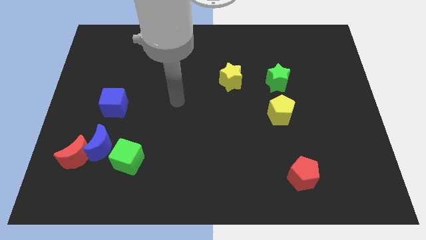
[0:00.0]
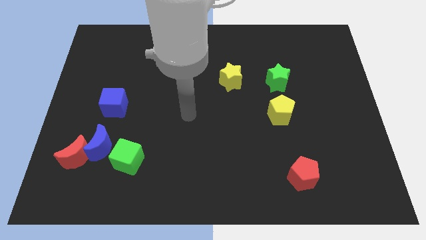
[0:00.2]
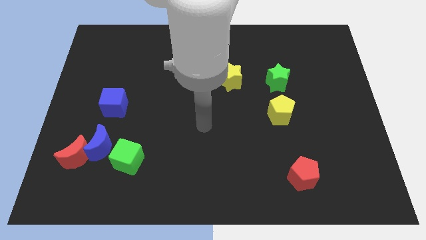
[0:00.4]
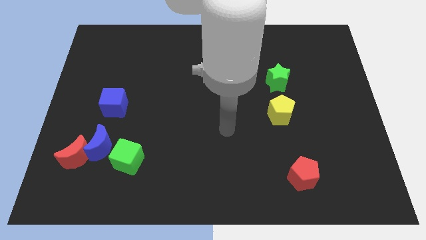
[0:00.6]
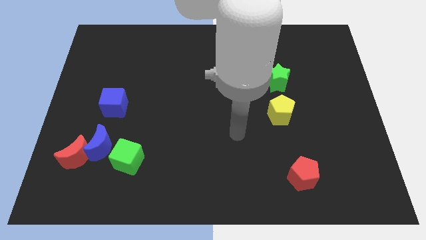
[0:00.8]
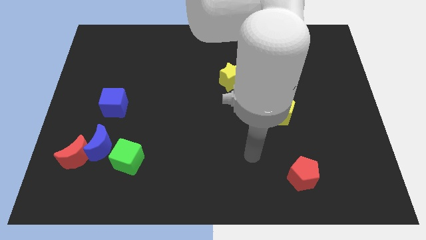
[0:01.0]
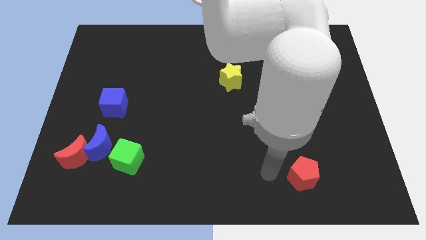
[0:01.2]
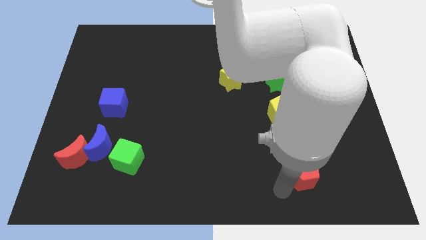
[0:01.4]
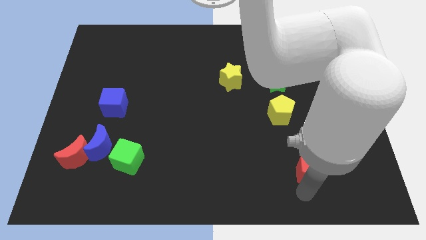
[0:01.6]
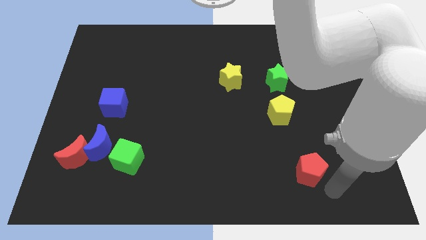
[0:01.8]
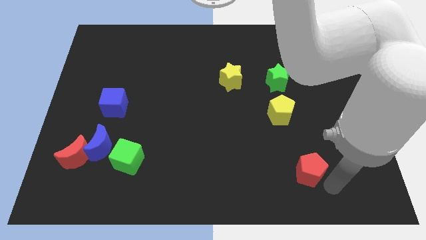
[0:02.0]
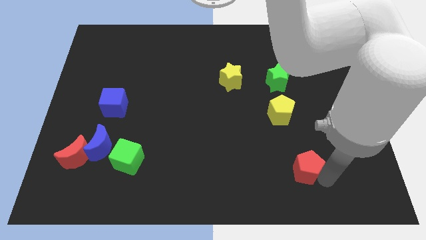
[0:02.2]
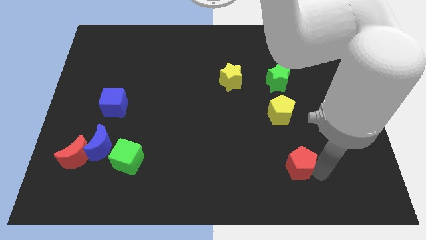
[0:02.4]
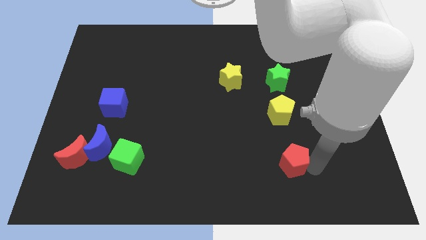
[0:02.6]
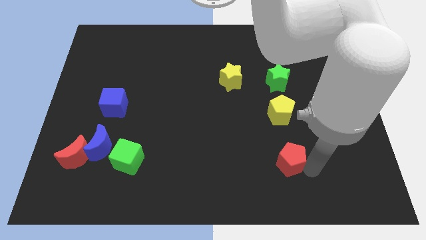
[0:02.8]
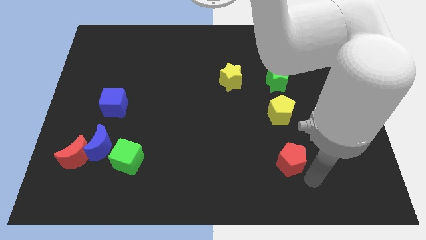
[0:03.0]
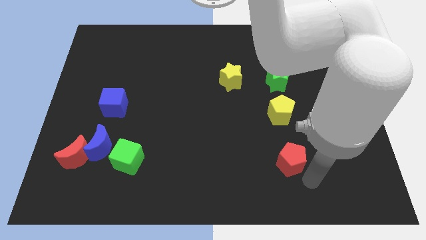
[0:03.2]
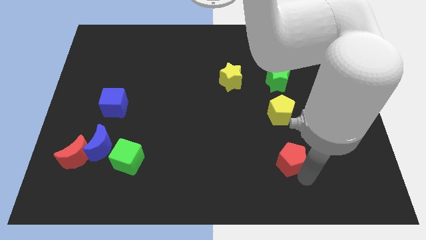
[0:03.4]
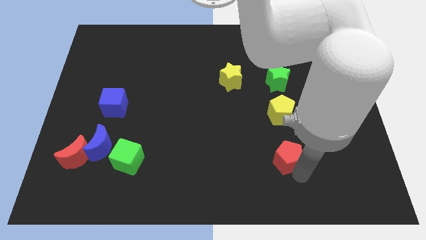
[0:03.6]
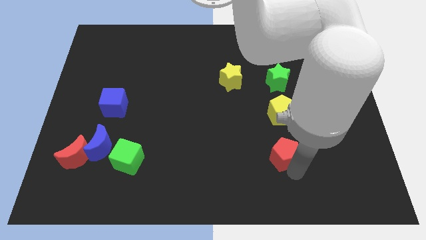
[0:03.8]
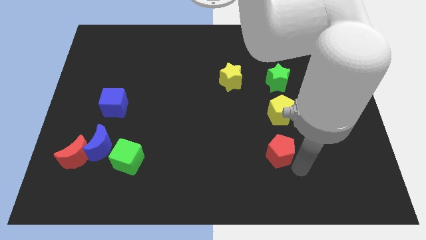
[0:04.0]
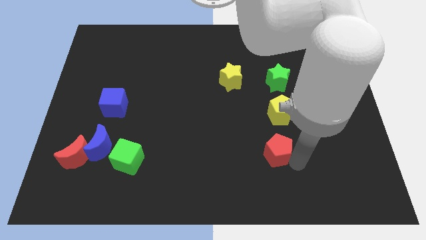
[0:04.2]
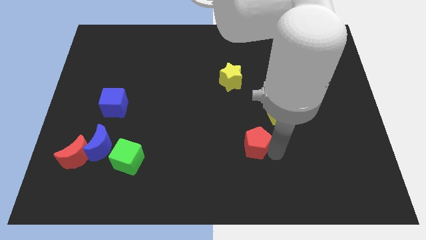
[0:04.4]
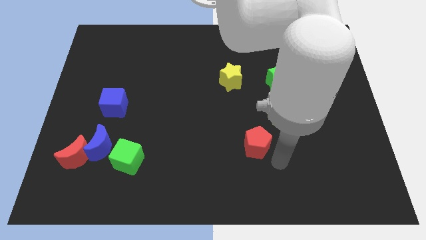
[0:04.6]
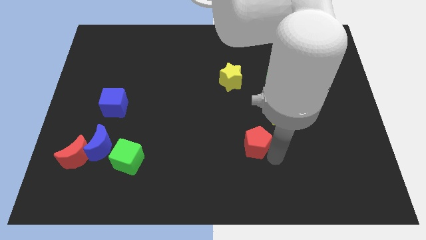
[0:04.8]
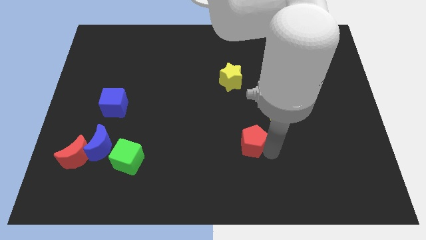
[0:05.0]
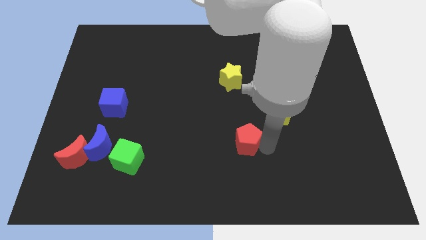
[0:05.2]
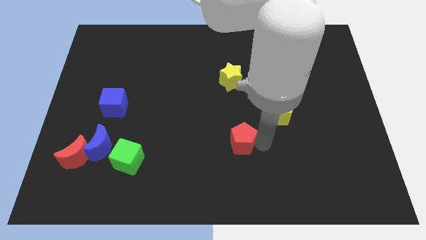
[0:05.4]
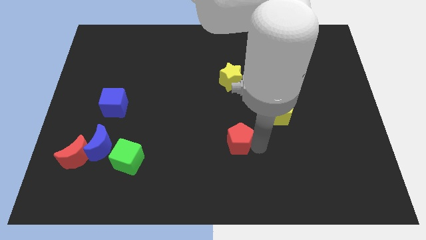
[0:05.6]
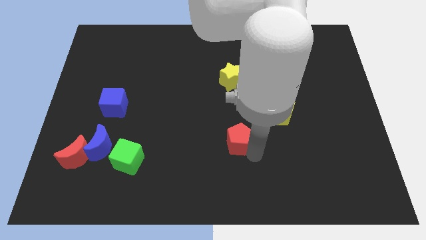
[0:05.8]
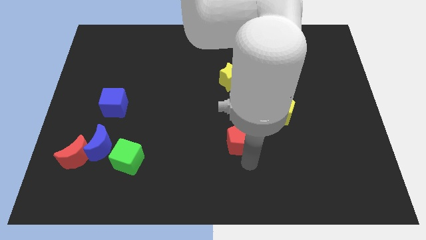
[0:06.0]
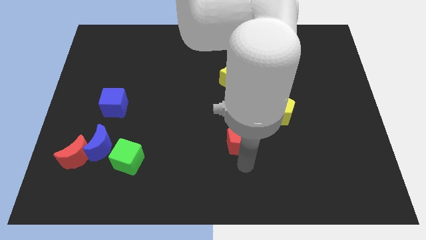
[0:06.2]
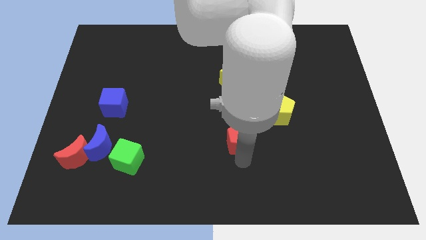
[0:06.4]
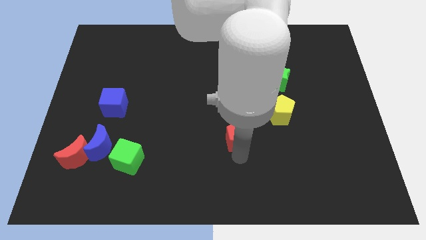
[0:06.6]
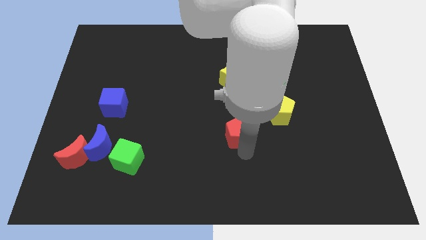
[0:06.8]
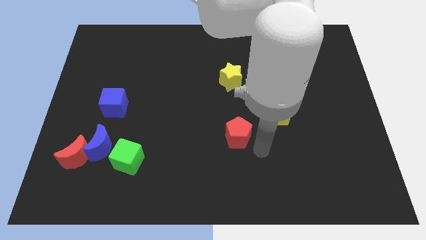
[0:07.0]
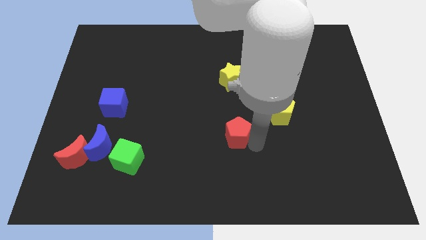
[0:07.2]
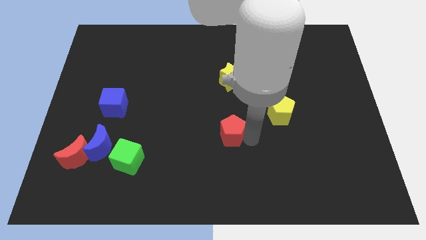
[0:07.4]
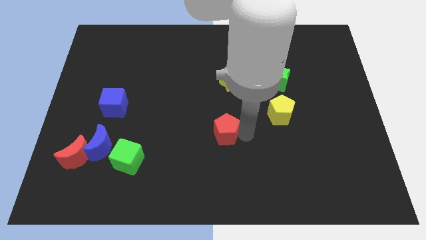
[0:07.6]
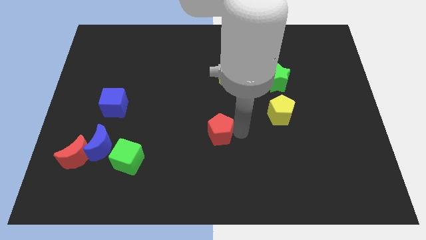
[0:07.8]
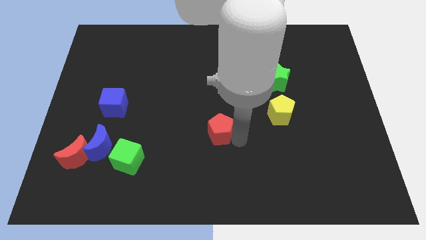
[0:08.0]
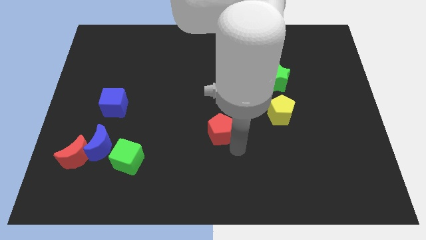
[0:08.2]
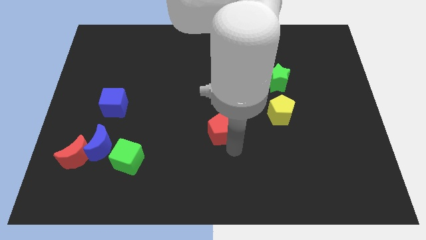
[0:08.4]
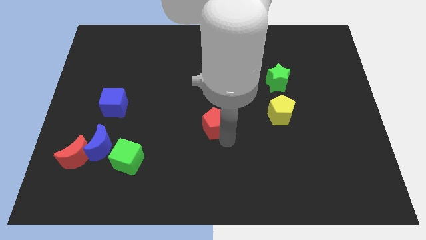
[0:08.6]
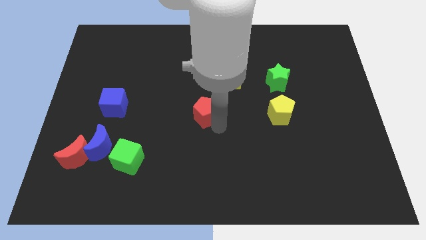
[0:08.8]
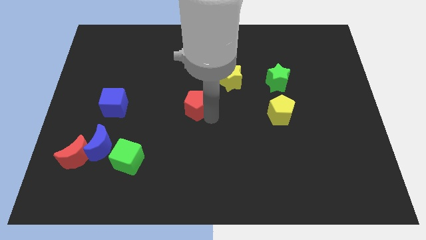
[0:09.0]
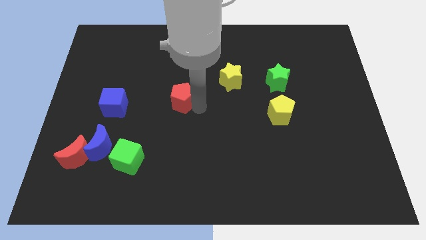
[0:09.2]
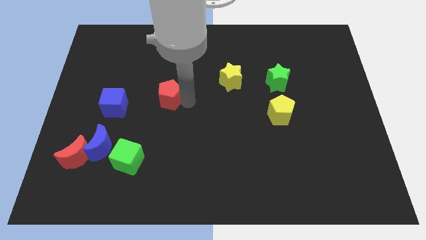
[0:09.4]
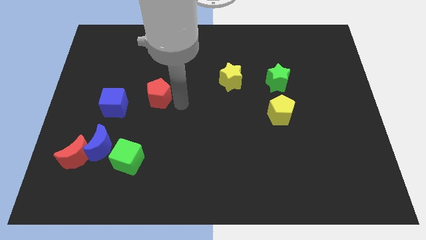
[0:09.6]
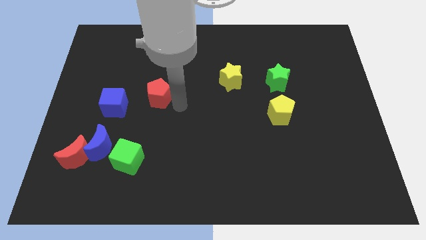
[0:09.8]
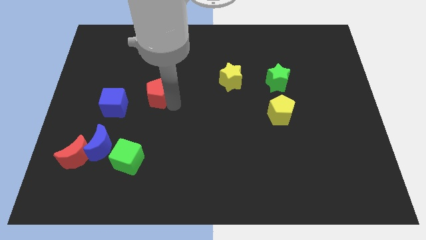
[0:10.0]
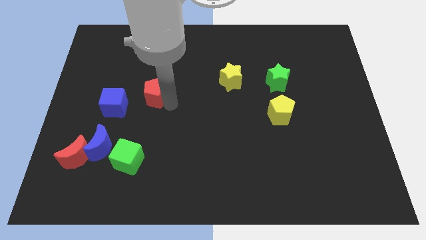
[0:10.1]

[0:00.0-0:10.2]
put the red pentagon to the top right side of the blue cube

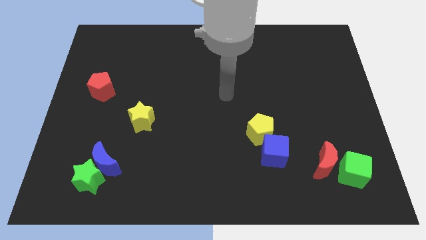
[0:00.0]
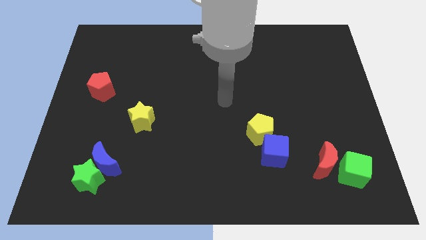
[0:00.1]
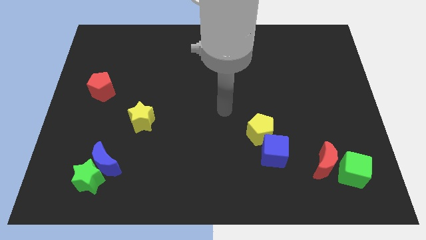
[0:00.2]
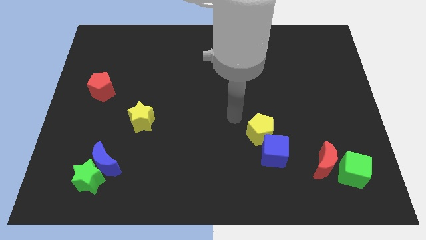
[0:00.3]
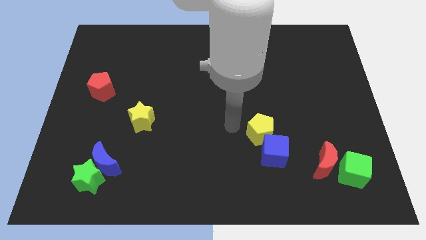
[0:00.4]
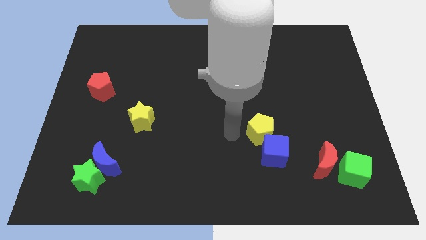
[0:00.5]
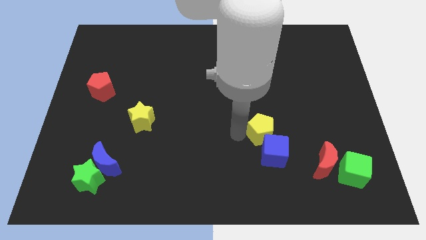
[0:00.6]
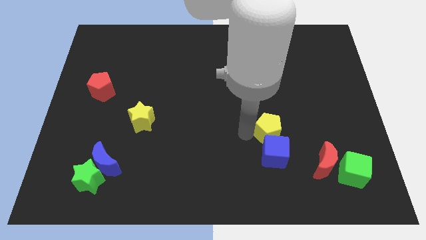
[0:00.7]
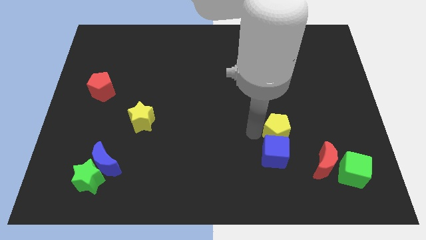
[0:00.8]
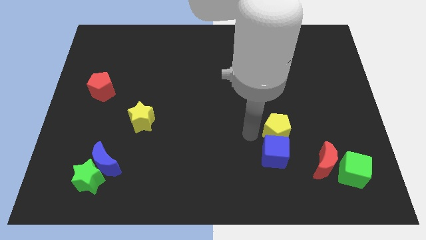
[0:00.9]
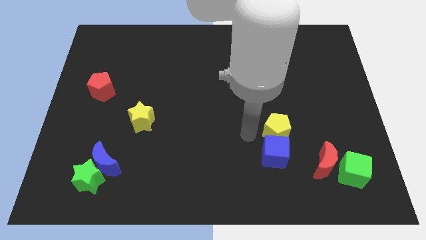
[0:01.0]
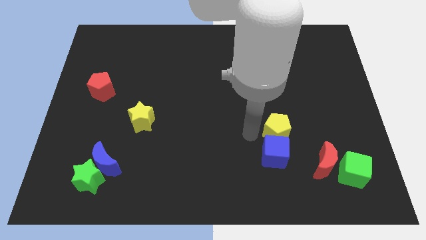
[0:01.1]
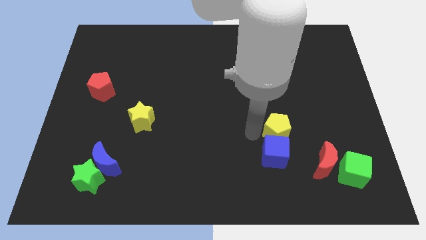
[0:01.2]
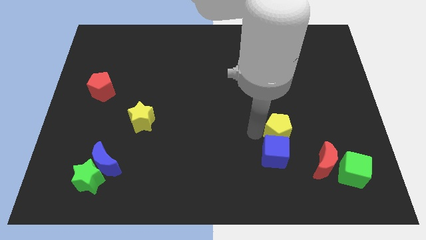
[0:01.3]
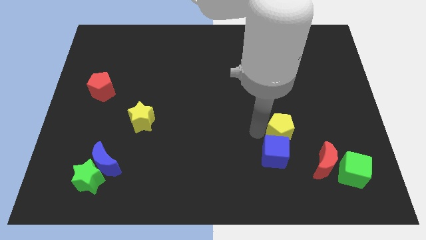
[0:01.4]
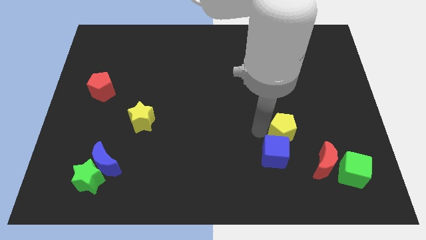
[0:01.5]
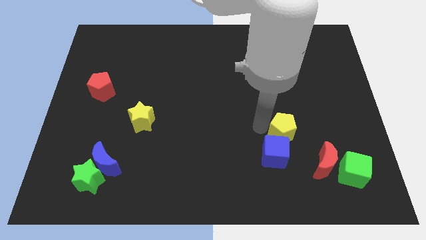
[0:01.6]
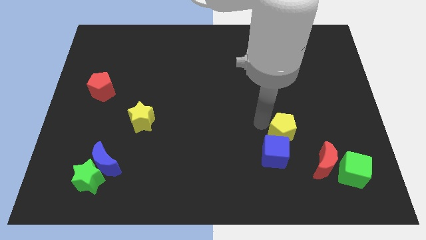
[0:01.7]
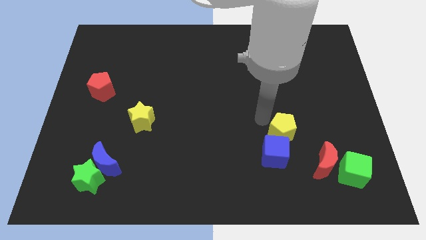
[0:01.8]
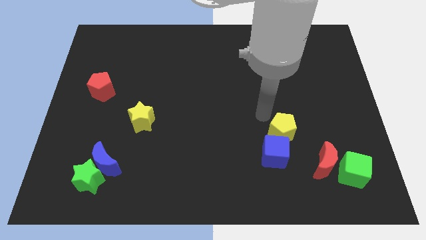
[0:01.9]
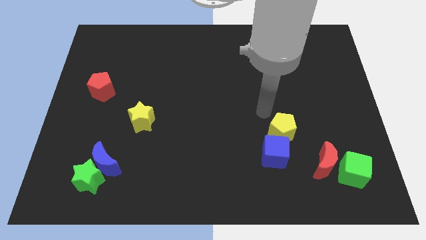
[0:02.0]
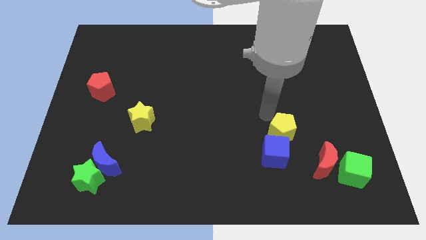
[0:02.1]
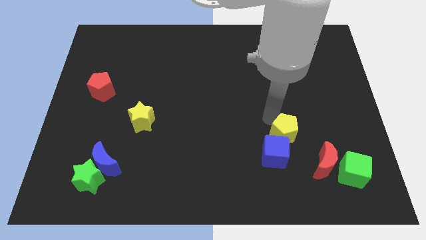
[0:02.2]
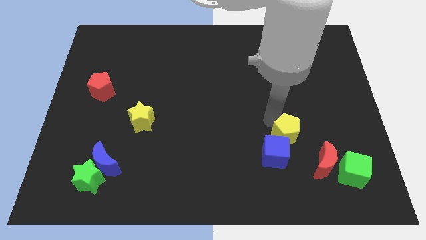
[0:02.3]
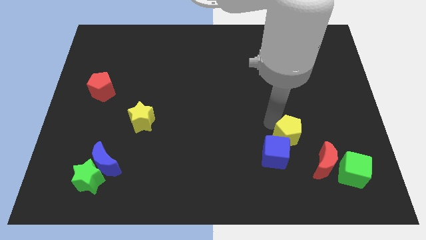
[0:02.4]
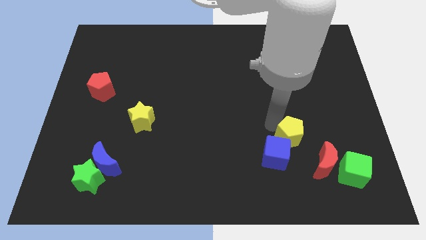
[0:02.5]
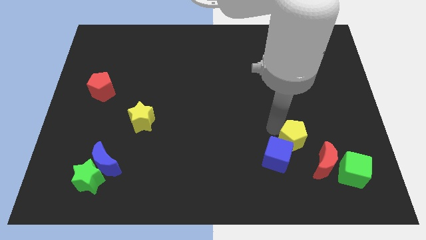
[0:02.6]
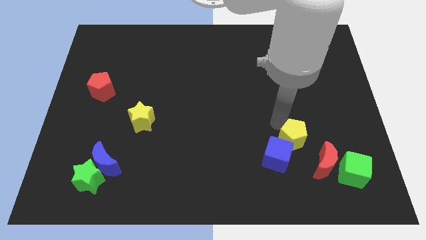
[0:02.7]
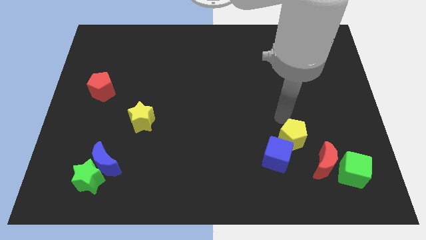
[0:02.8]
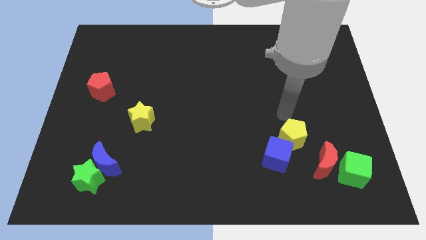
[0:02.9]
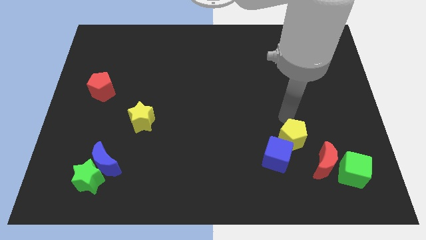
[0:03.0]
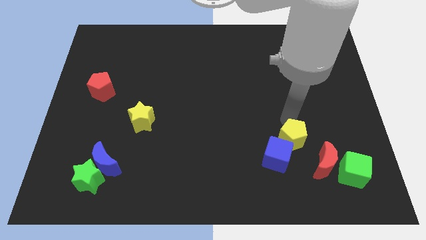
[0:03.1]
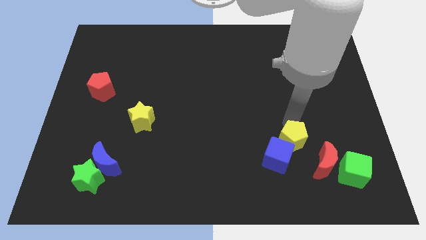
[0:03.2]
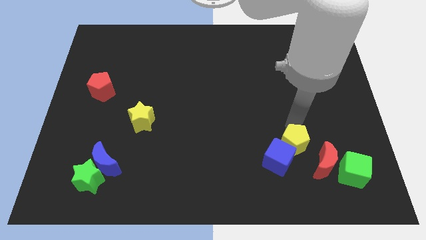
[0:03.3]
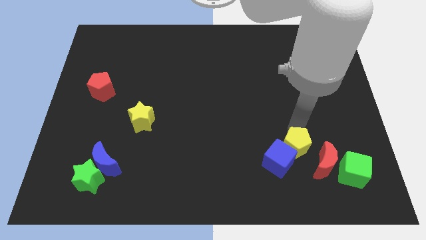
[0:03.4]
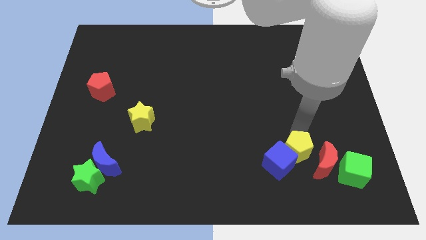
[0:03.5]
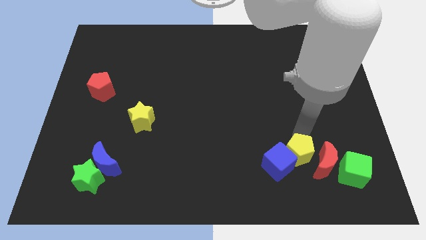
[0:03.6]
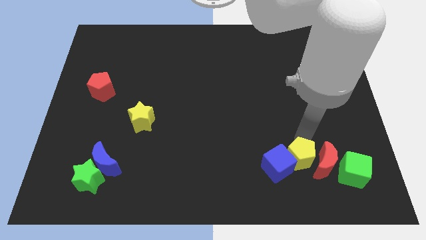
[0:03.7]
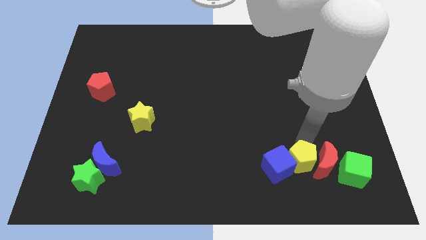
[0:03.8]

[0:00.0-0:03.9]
push the yellow pentagon diagonally down and to the right of the blue cube
